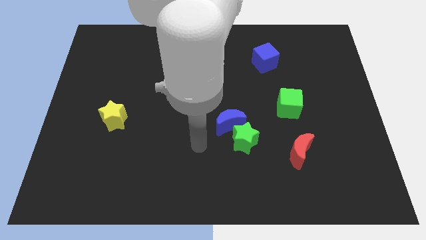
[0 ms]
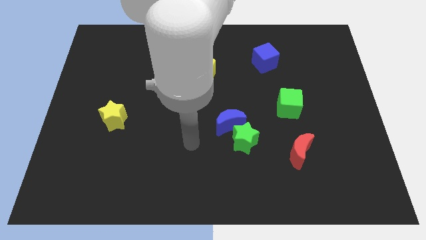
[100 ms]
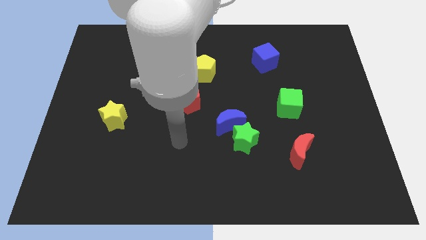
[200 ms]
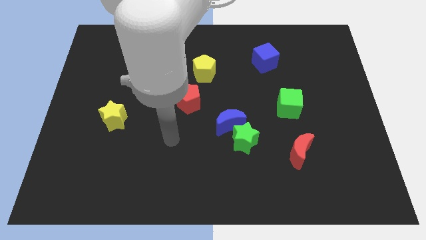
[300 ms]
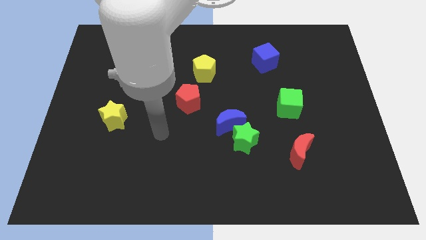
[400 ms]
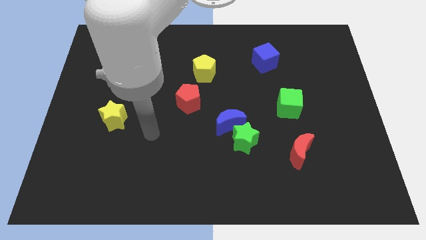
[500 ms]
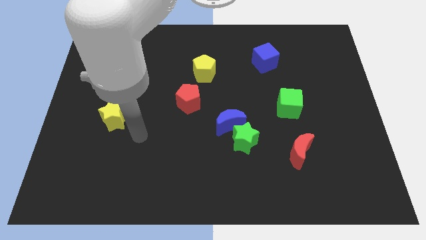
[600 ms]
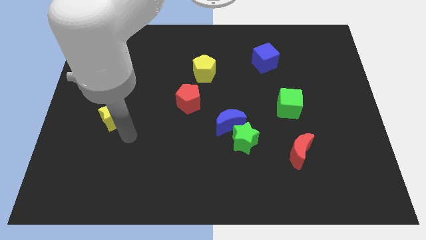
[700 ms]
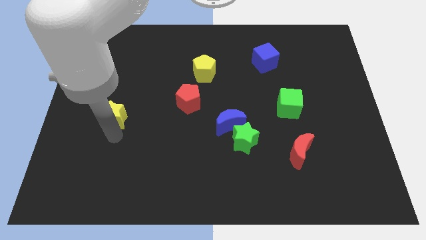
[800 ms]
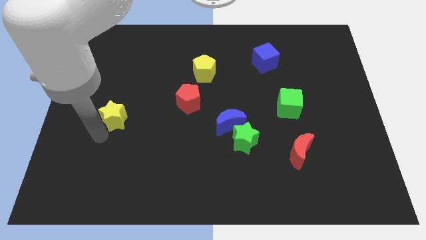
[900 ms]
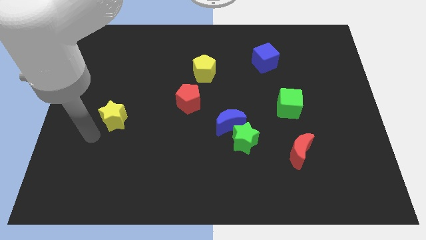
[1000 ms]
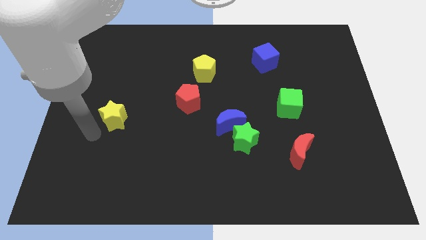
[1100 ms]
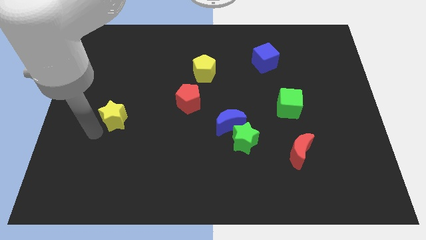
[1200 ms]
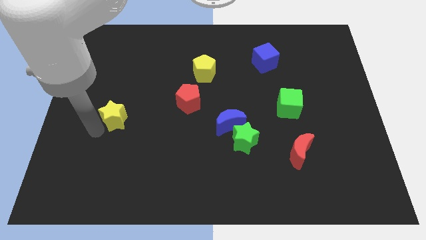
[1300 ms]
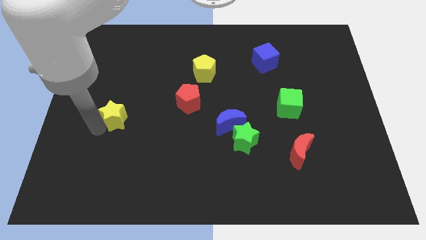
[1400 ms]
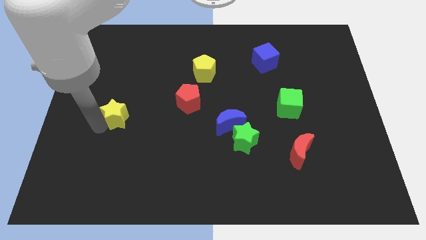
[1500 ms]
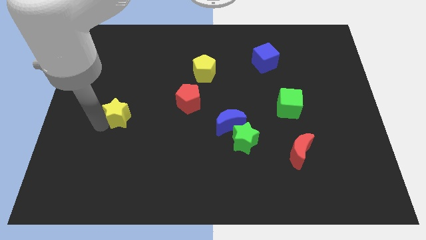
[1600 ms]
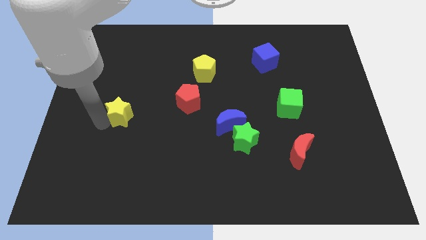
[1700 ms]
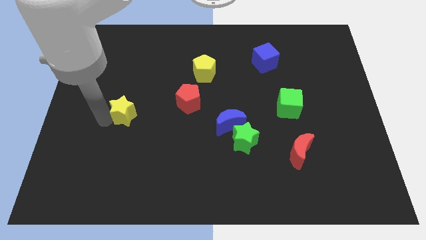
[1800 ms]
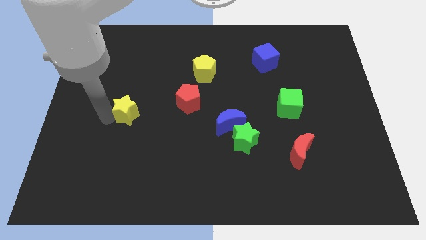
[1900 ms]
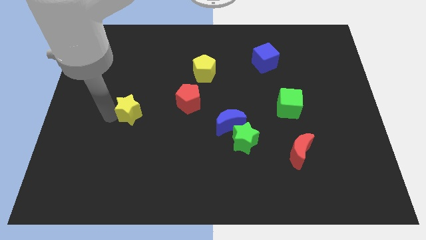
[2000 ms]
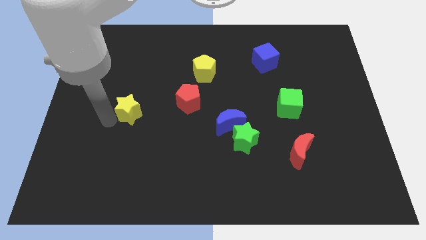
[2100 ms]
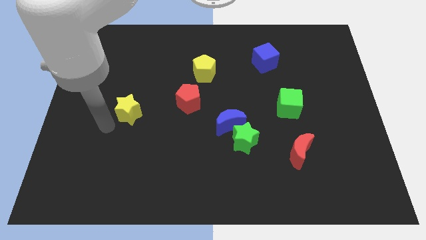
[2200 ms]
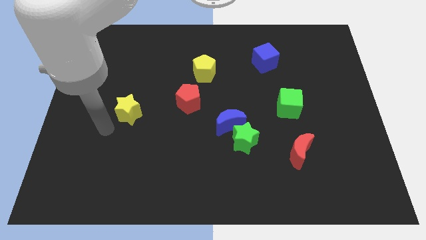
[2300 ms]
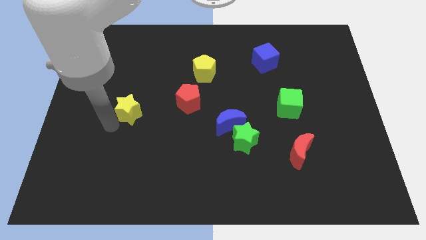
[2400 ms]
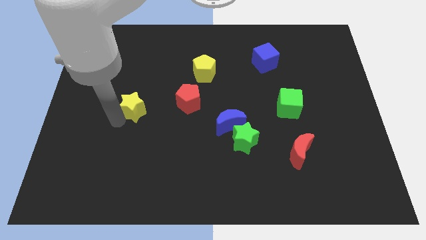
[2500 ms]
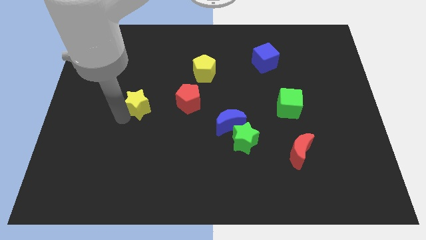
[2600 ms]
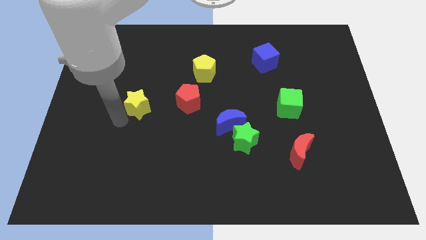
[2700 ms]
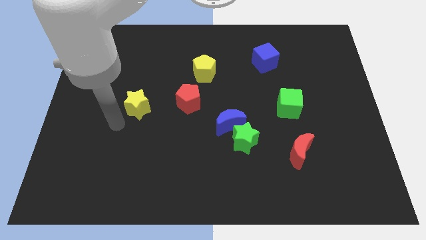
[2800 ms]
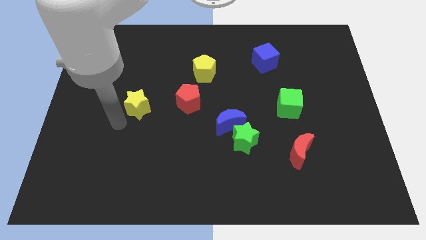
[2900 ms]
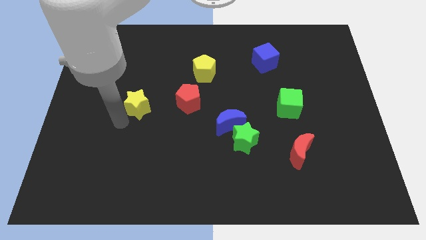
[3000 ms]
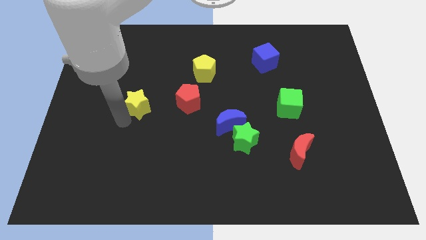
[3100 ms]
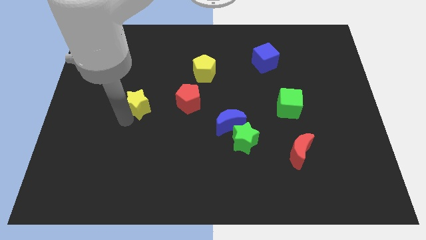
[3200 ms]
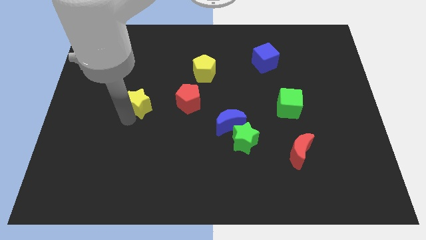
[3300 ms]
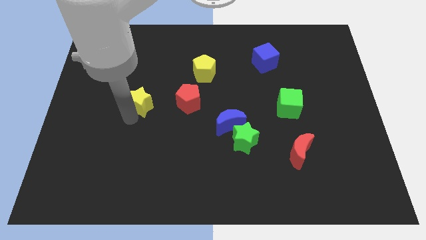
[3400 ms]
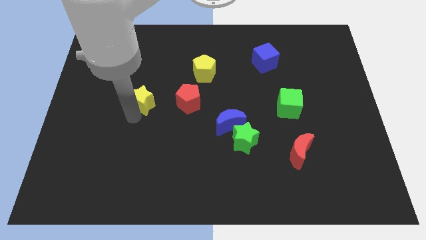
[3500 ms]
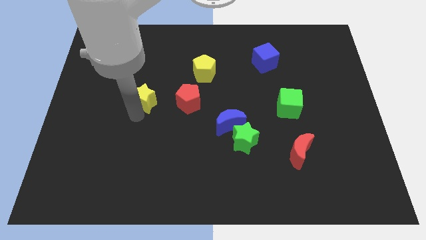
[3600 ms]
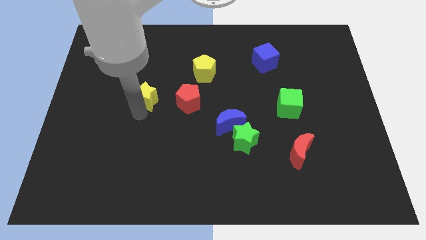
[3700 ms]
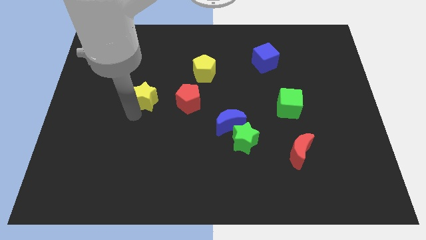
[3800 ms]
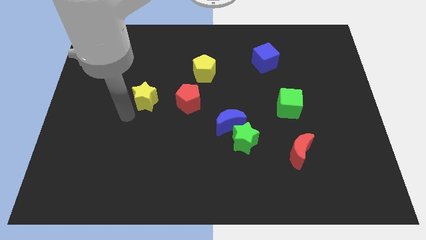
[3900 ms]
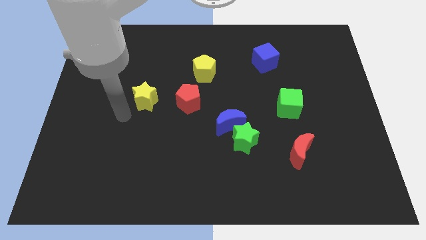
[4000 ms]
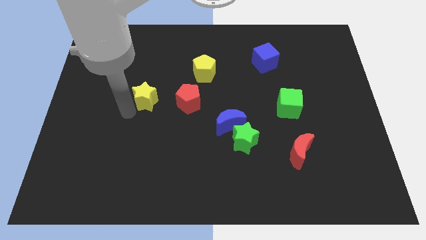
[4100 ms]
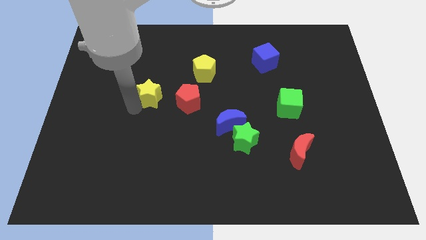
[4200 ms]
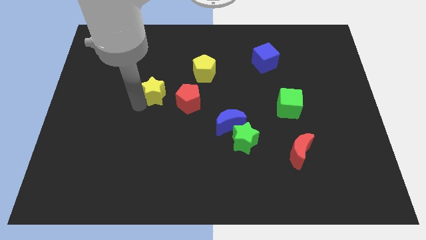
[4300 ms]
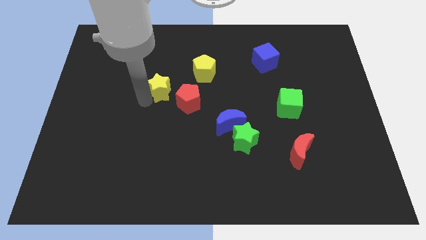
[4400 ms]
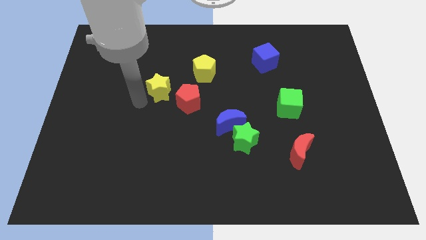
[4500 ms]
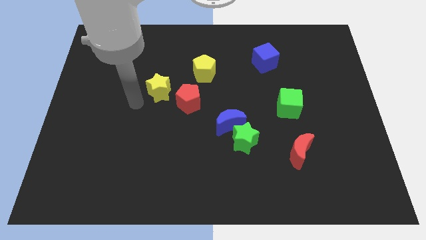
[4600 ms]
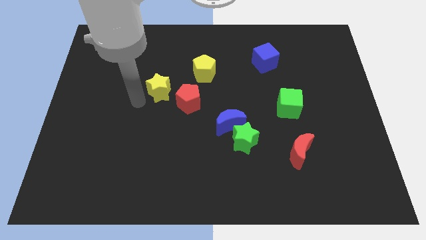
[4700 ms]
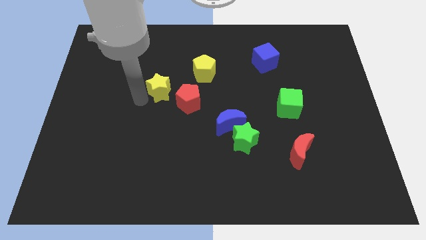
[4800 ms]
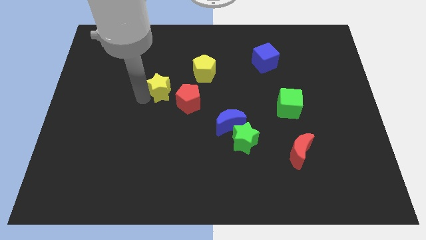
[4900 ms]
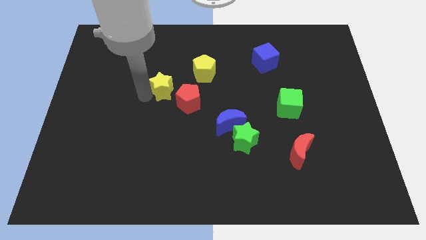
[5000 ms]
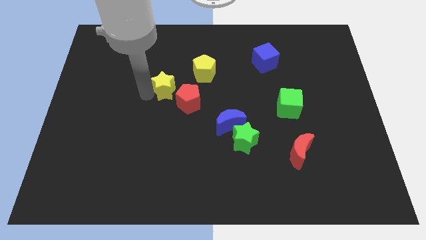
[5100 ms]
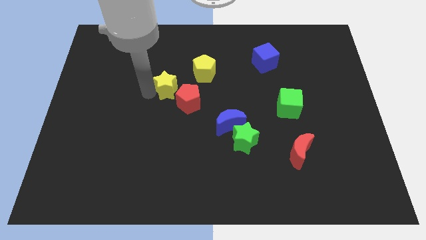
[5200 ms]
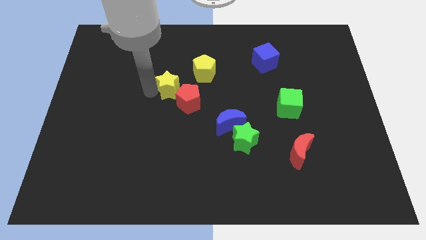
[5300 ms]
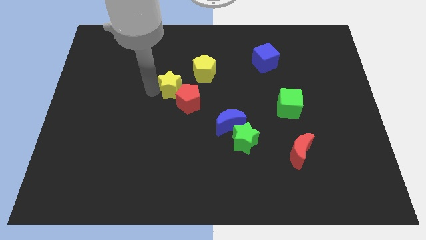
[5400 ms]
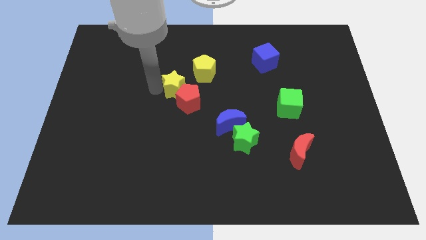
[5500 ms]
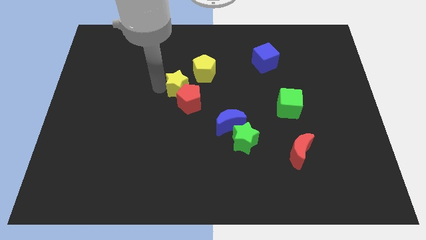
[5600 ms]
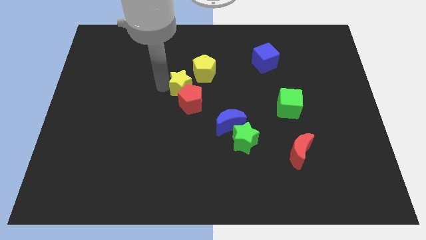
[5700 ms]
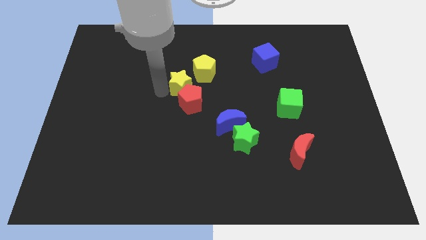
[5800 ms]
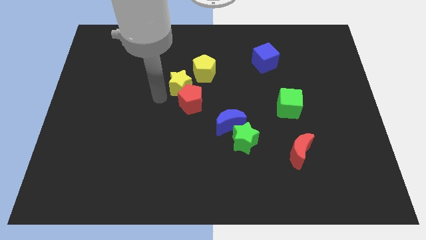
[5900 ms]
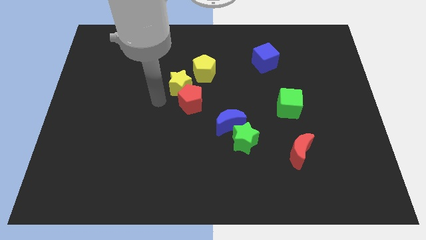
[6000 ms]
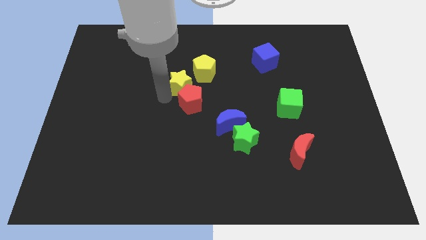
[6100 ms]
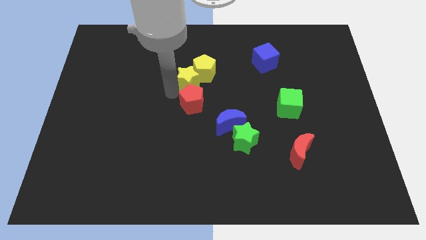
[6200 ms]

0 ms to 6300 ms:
slide the yellow star towards the yellow pentagon

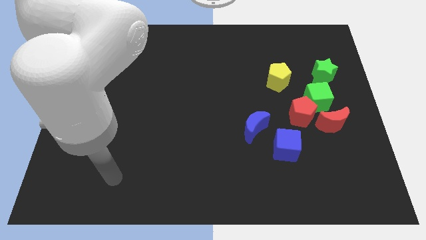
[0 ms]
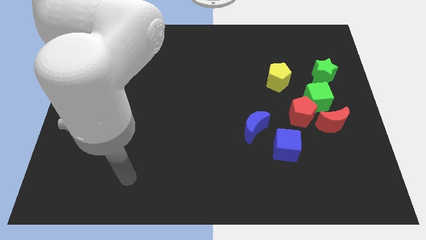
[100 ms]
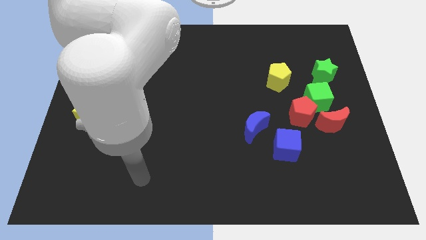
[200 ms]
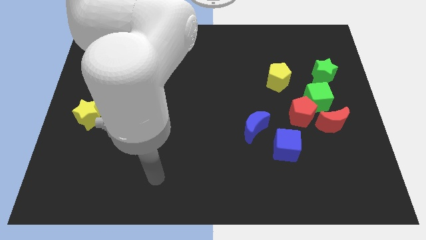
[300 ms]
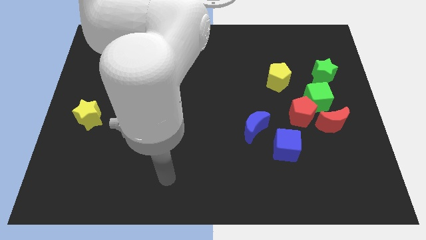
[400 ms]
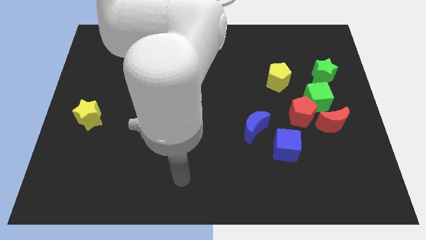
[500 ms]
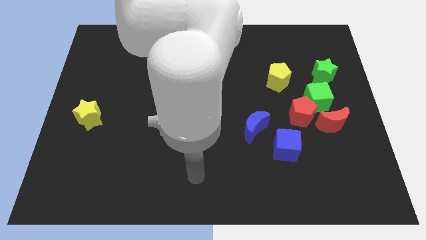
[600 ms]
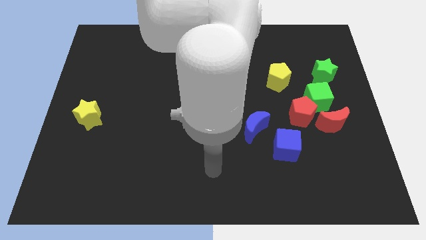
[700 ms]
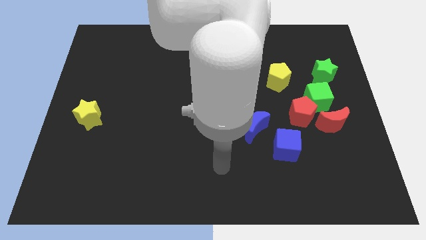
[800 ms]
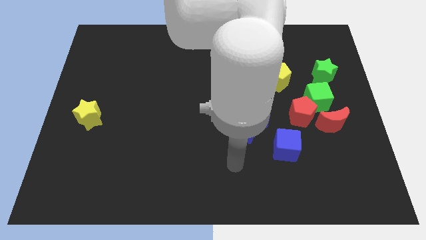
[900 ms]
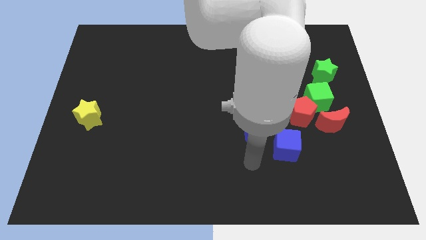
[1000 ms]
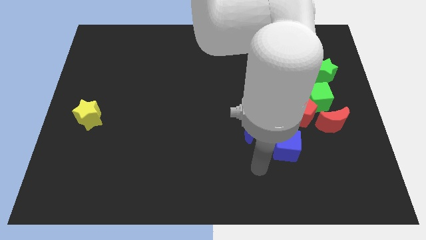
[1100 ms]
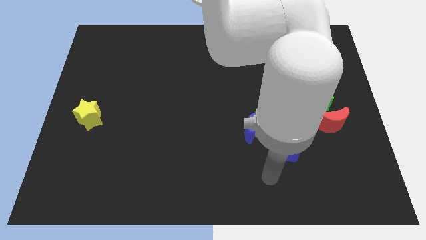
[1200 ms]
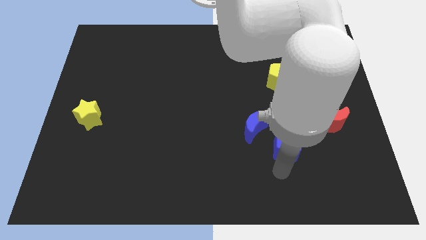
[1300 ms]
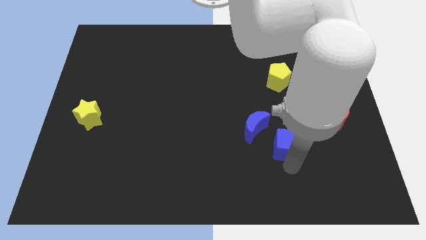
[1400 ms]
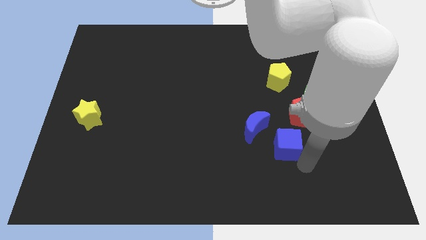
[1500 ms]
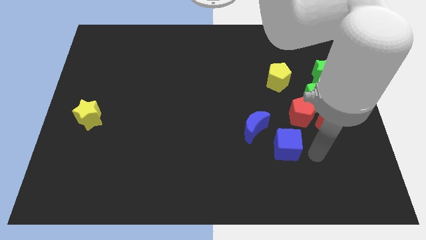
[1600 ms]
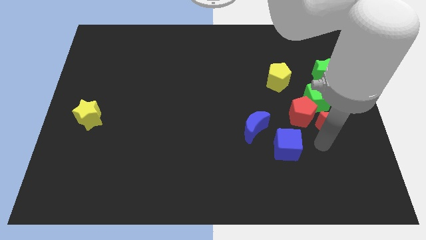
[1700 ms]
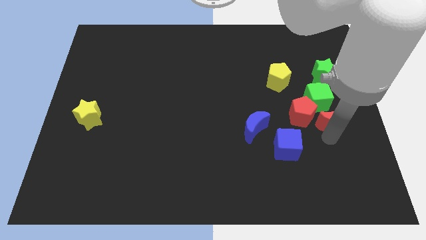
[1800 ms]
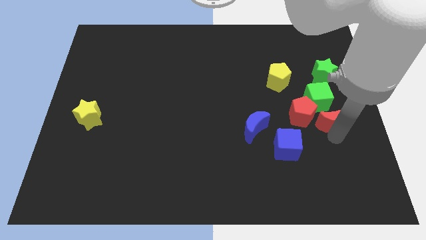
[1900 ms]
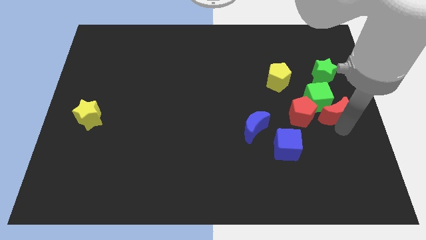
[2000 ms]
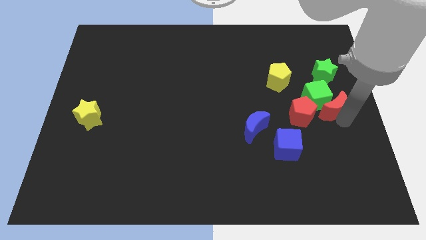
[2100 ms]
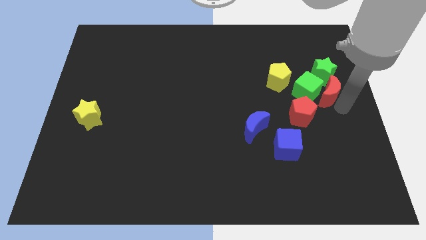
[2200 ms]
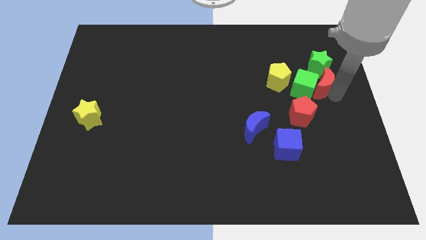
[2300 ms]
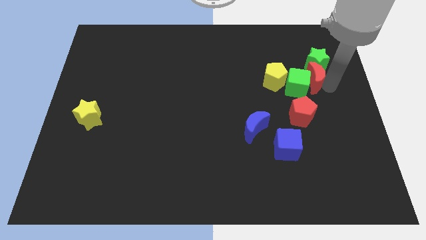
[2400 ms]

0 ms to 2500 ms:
push the green cube to the yellow pentagon
